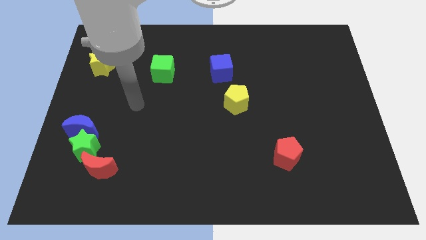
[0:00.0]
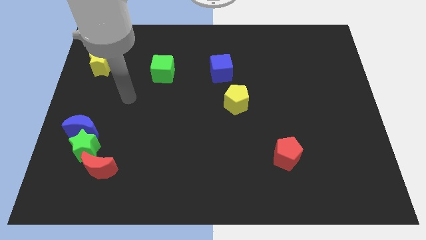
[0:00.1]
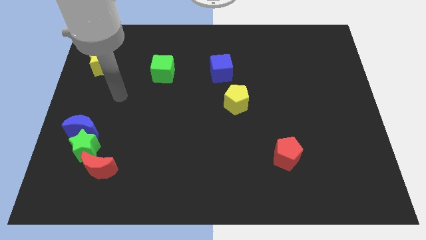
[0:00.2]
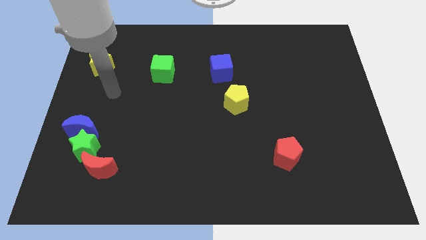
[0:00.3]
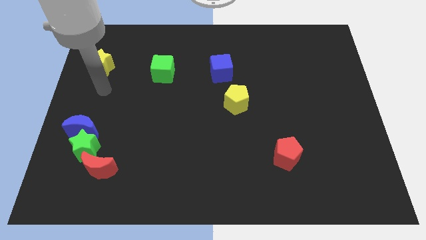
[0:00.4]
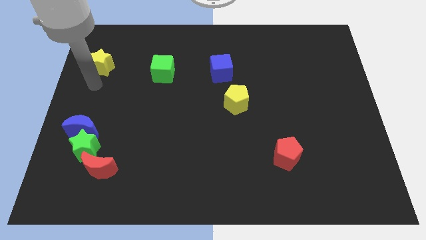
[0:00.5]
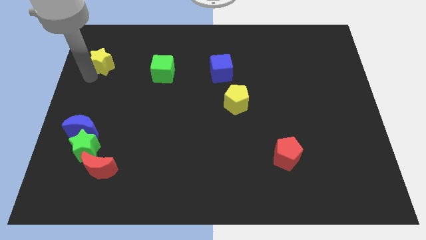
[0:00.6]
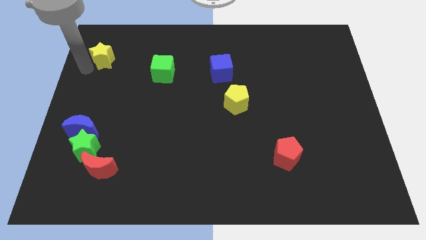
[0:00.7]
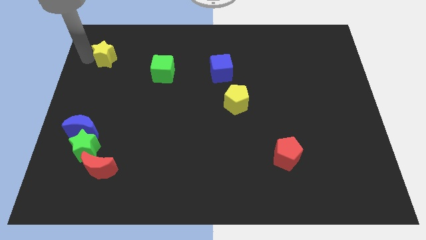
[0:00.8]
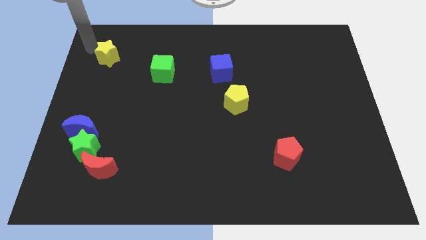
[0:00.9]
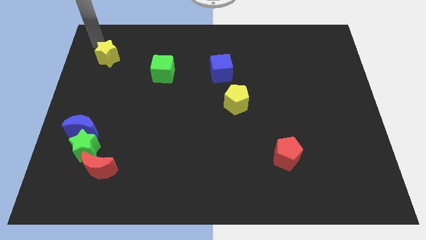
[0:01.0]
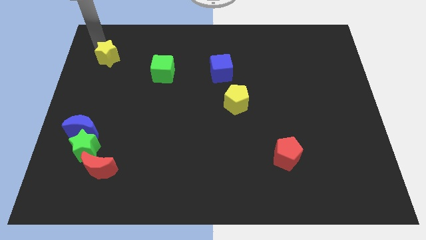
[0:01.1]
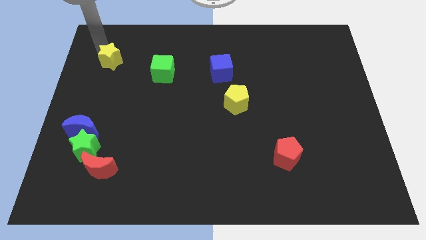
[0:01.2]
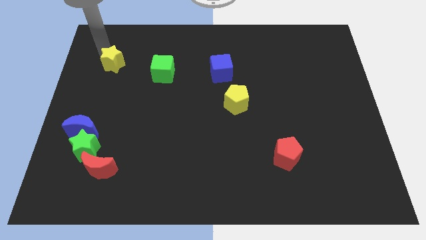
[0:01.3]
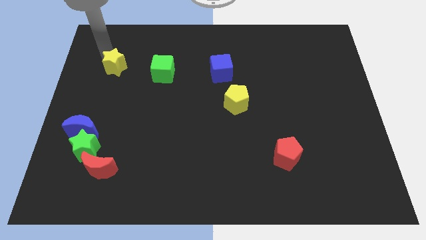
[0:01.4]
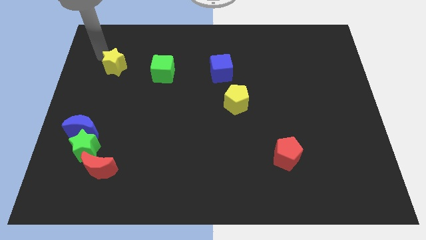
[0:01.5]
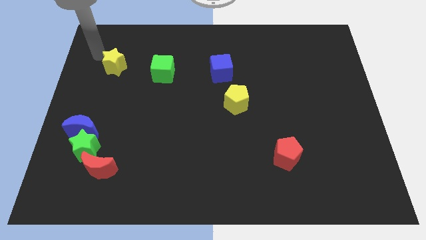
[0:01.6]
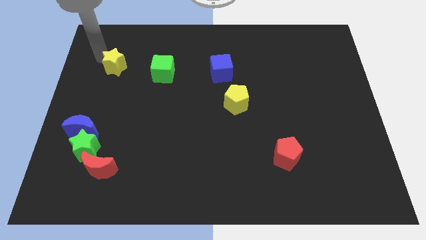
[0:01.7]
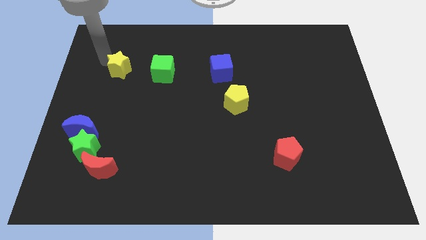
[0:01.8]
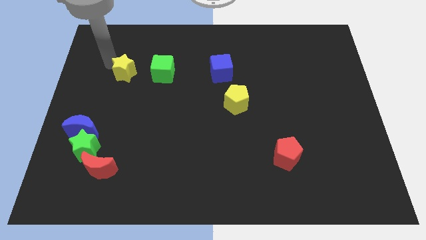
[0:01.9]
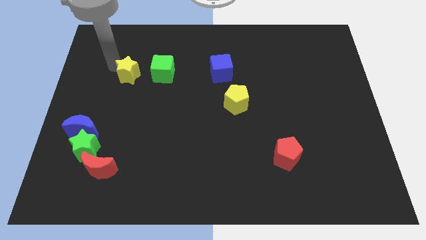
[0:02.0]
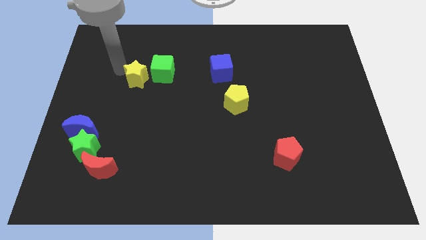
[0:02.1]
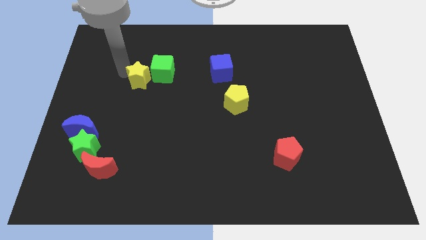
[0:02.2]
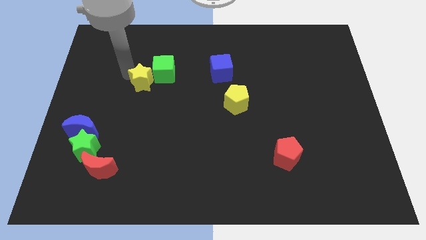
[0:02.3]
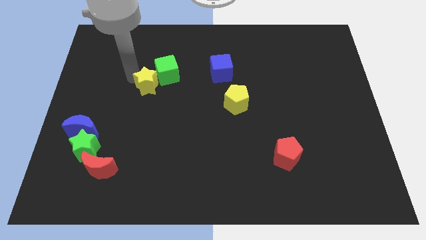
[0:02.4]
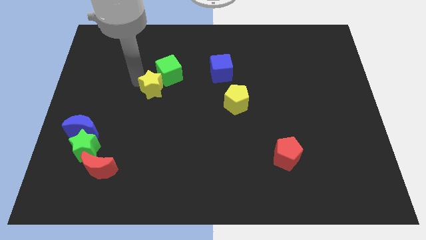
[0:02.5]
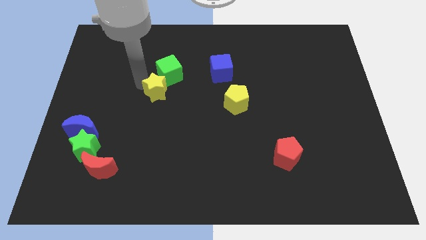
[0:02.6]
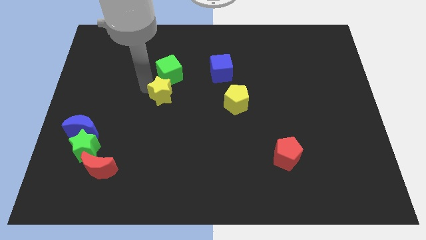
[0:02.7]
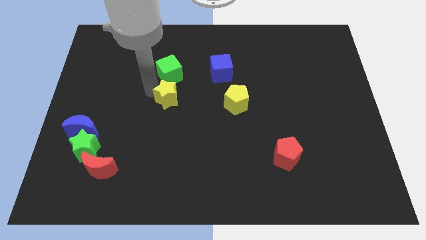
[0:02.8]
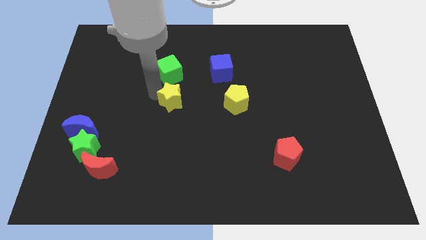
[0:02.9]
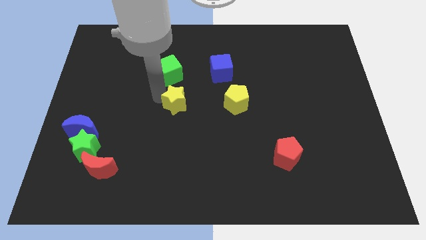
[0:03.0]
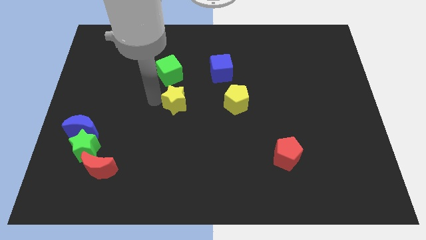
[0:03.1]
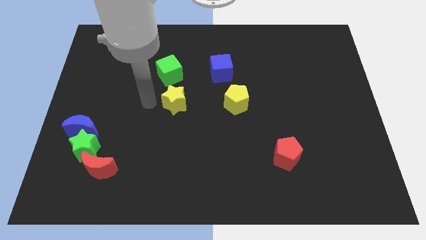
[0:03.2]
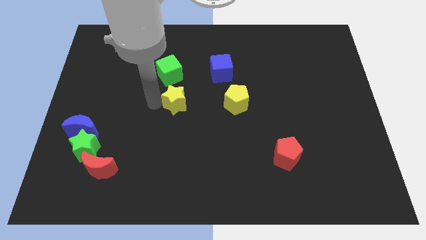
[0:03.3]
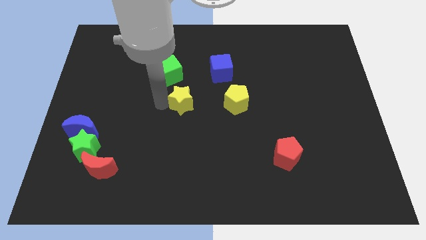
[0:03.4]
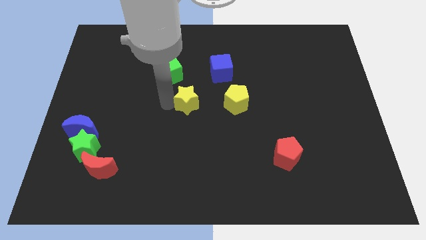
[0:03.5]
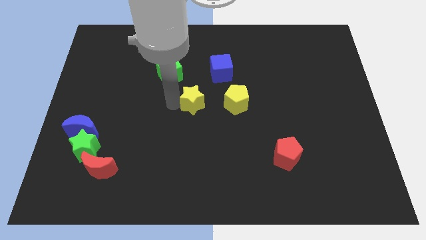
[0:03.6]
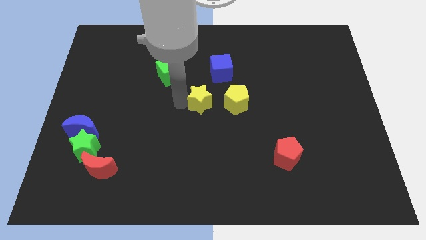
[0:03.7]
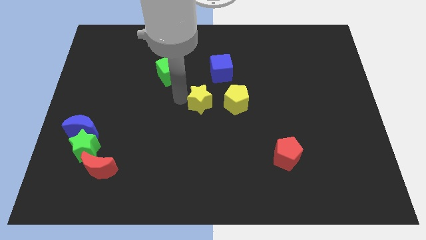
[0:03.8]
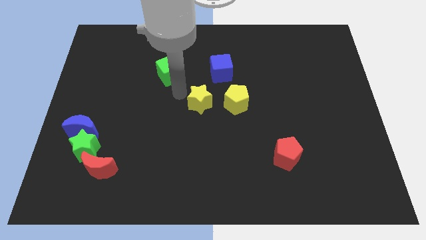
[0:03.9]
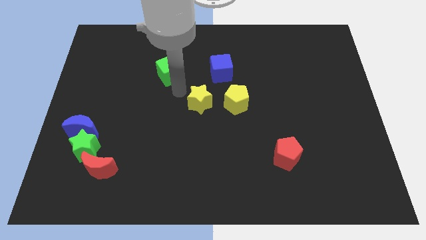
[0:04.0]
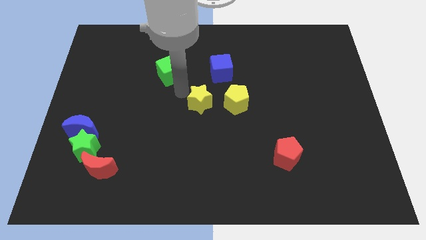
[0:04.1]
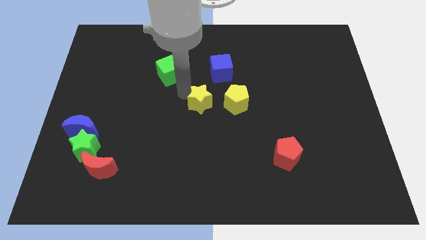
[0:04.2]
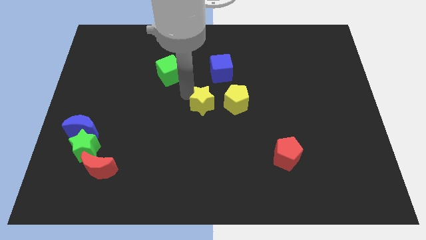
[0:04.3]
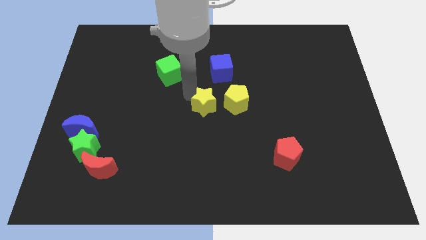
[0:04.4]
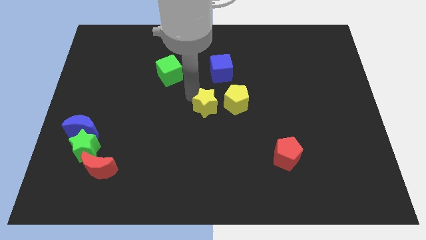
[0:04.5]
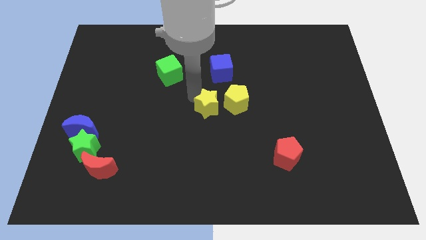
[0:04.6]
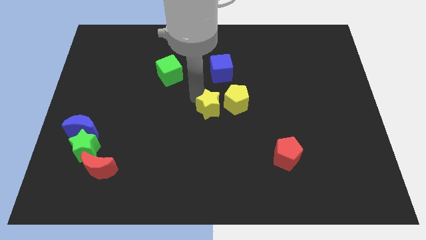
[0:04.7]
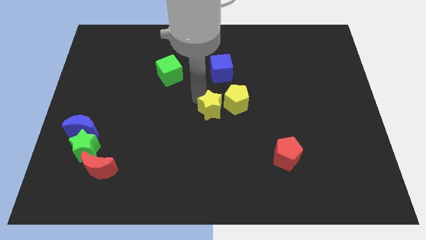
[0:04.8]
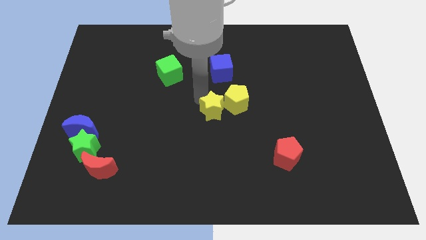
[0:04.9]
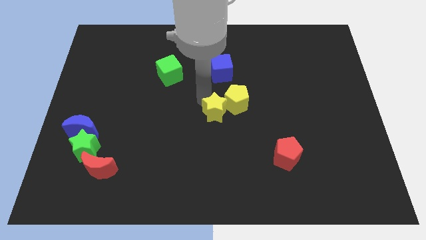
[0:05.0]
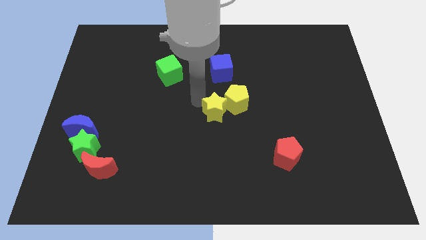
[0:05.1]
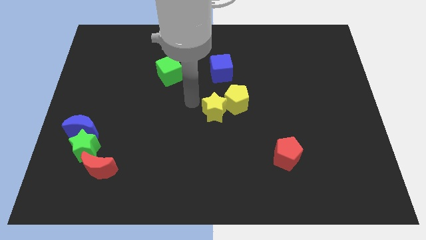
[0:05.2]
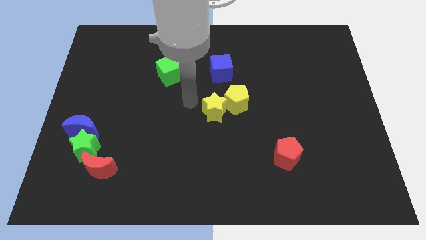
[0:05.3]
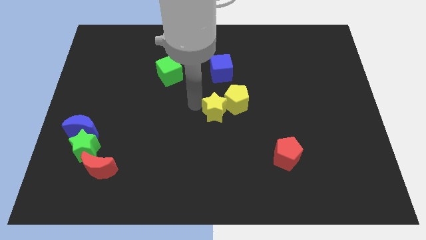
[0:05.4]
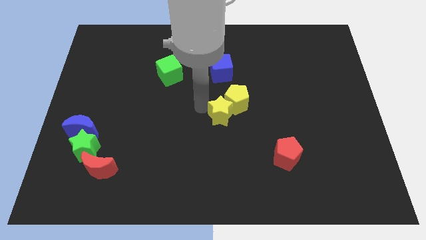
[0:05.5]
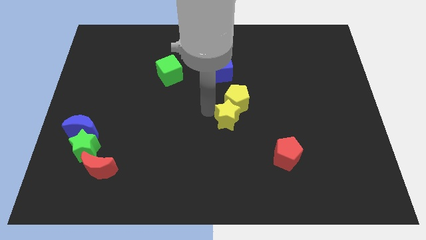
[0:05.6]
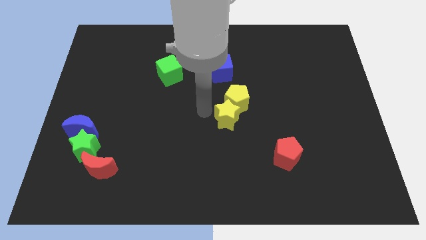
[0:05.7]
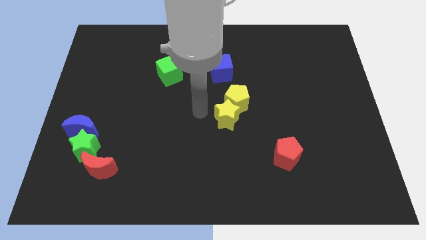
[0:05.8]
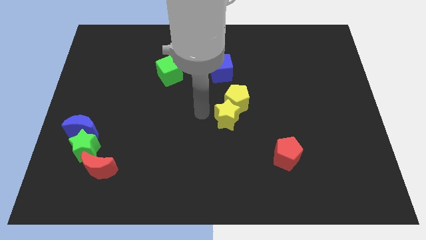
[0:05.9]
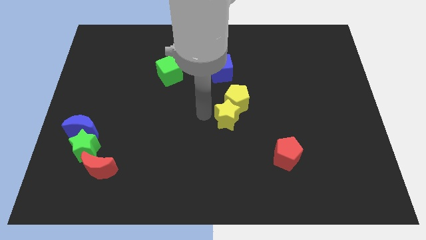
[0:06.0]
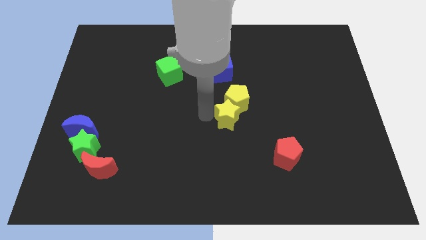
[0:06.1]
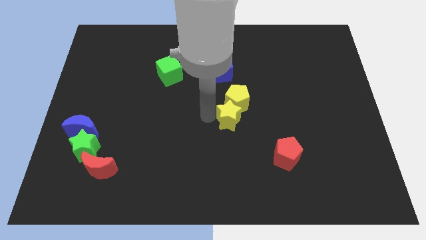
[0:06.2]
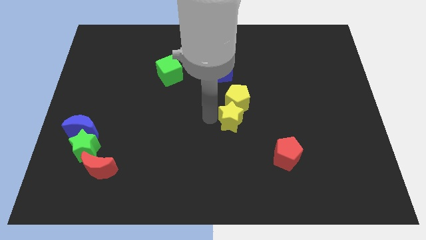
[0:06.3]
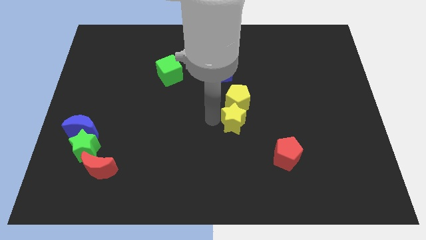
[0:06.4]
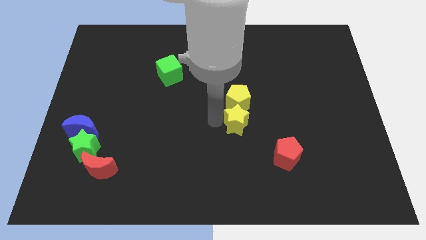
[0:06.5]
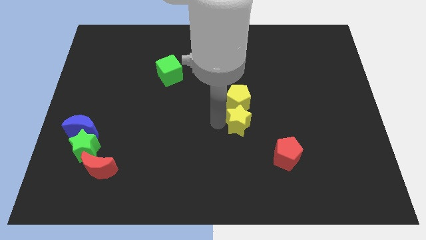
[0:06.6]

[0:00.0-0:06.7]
move the yellow star to the top left of the red pentagon

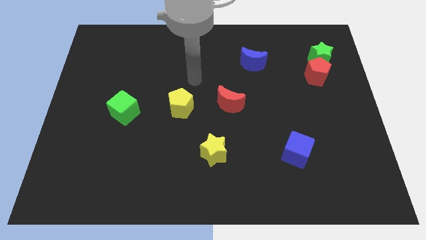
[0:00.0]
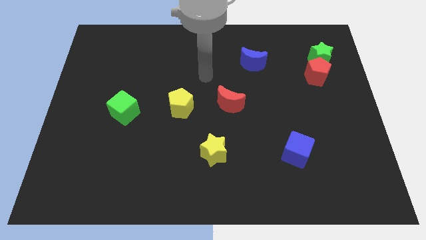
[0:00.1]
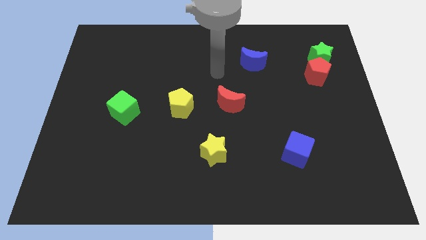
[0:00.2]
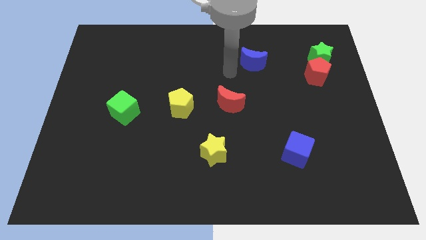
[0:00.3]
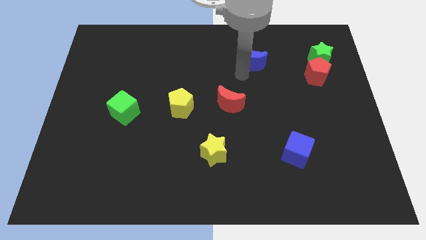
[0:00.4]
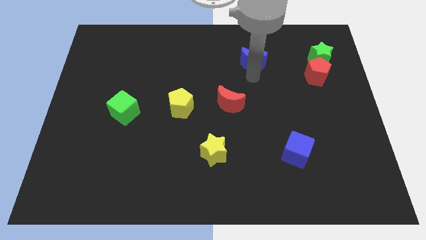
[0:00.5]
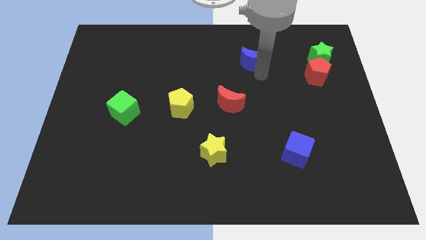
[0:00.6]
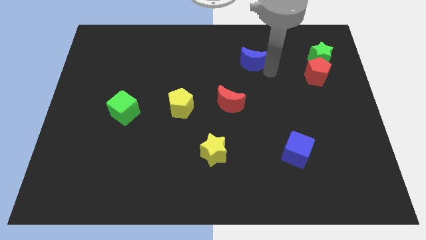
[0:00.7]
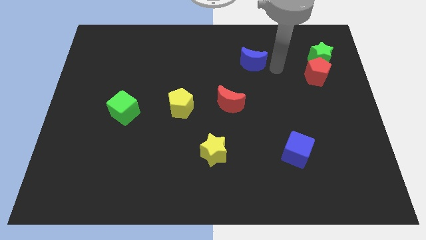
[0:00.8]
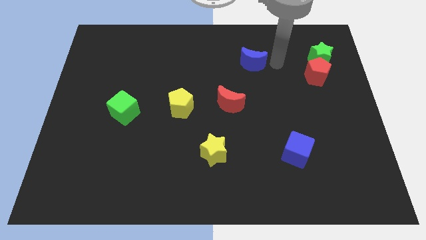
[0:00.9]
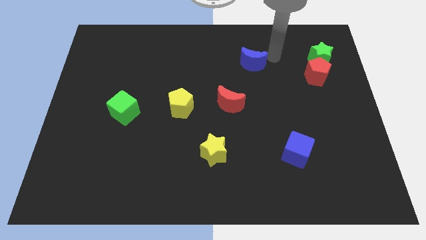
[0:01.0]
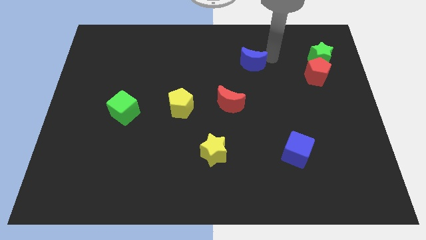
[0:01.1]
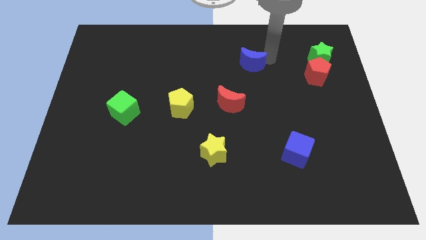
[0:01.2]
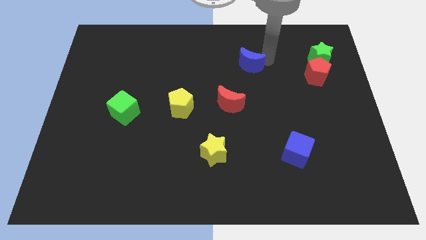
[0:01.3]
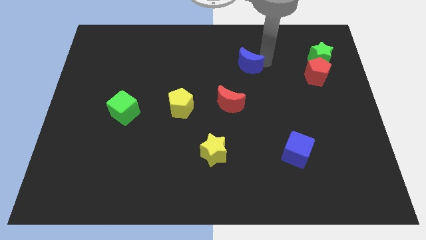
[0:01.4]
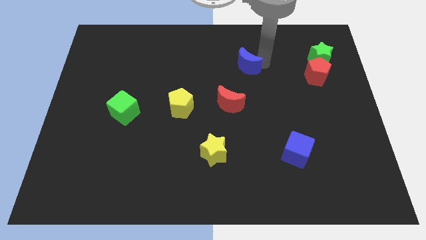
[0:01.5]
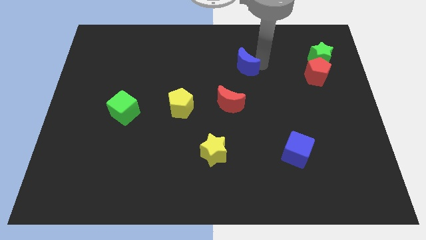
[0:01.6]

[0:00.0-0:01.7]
move the blue moon above the red moon
